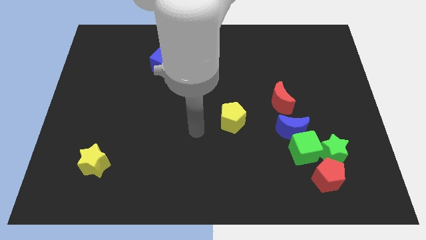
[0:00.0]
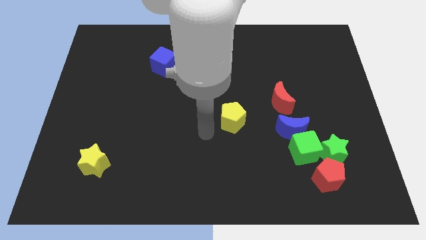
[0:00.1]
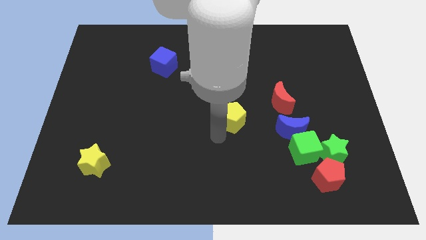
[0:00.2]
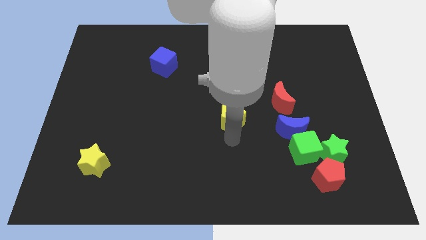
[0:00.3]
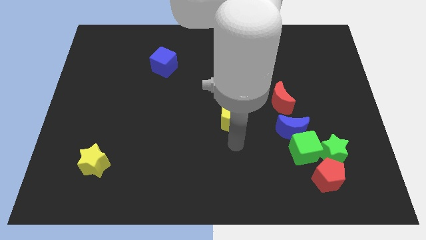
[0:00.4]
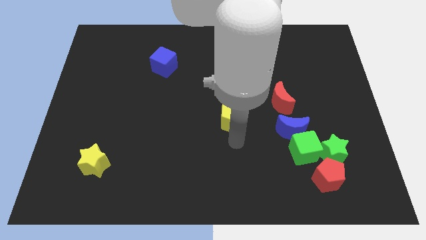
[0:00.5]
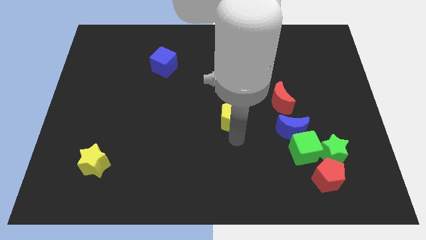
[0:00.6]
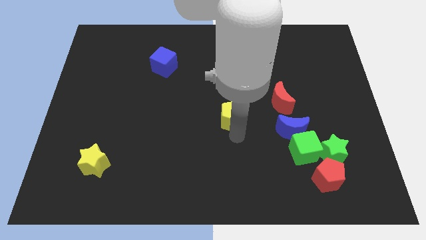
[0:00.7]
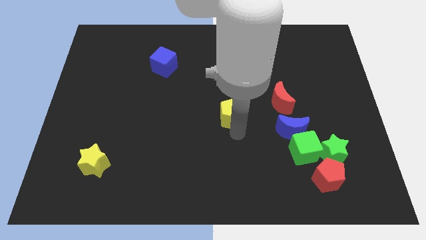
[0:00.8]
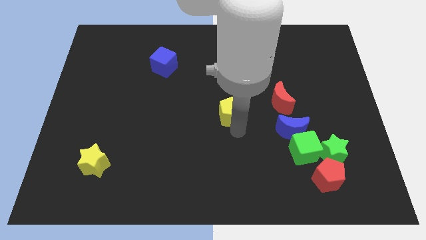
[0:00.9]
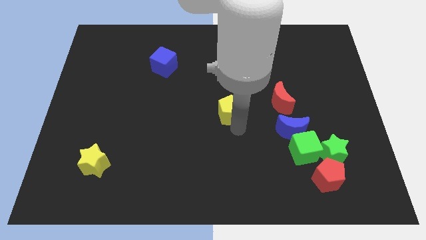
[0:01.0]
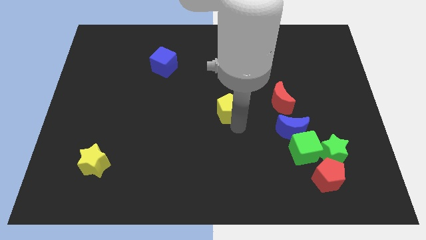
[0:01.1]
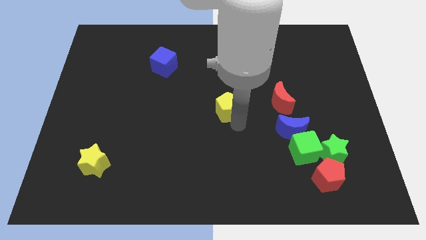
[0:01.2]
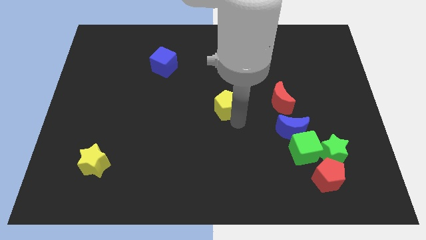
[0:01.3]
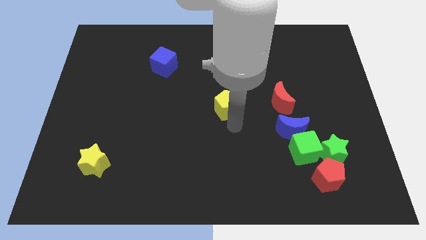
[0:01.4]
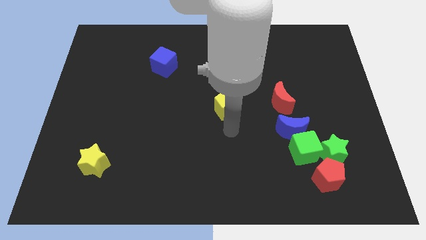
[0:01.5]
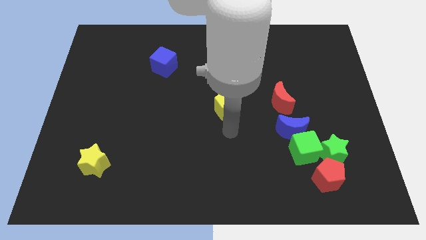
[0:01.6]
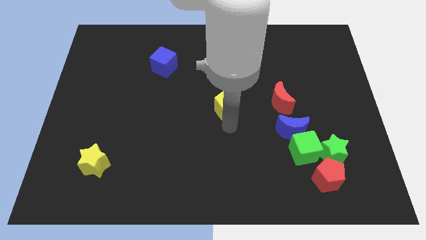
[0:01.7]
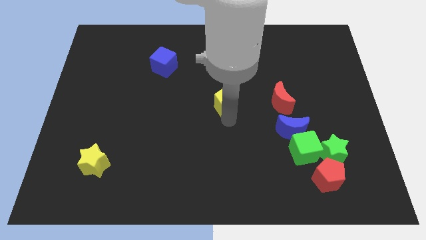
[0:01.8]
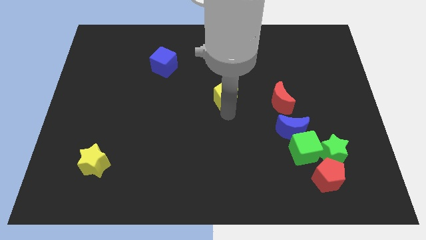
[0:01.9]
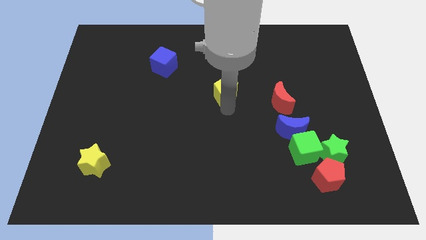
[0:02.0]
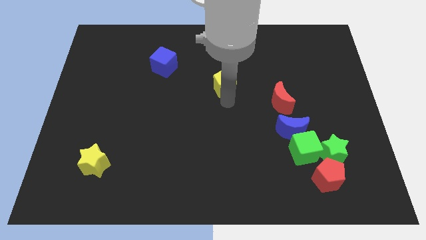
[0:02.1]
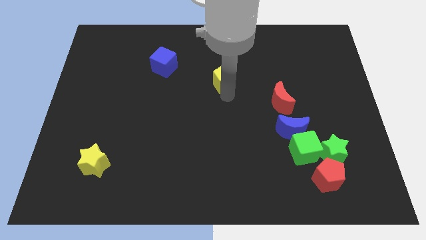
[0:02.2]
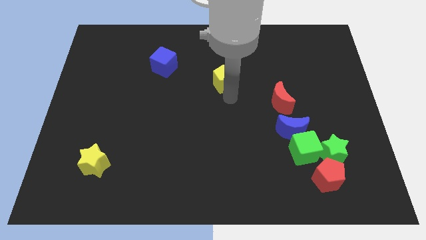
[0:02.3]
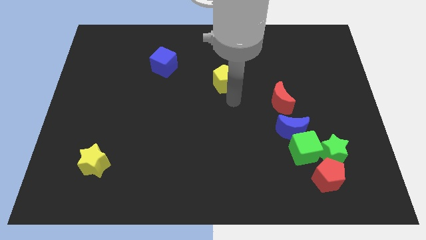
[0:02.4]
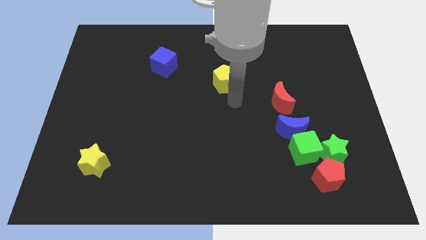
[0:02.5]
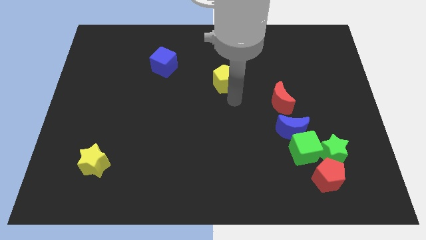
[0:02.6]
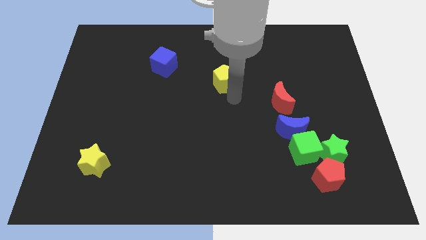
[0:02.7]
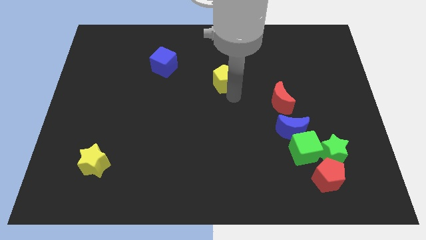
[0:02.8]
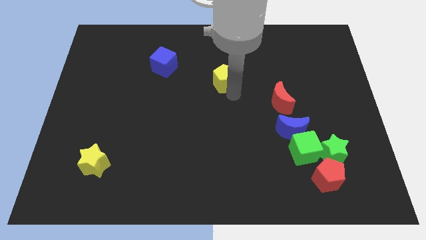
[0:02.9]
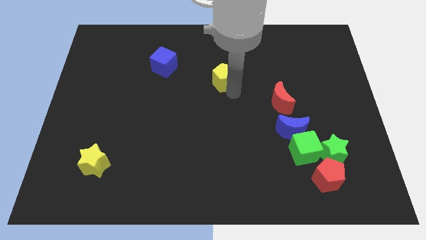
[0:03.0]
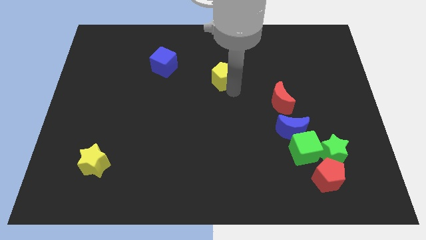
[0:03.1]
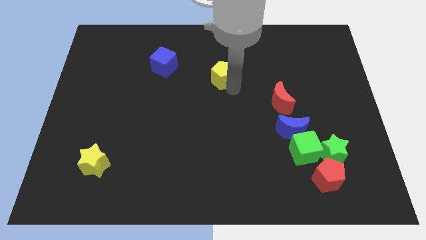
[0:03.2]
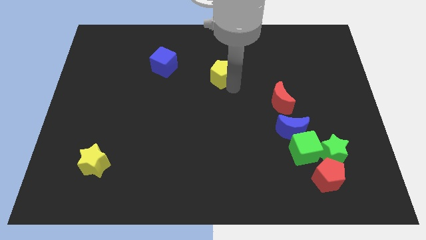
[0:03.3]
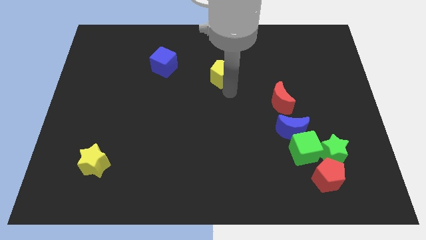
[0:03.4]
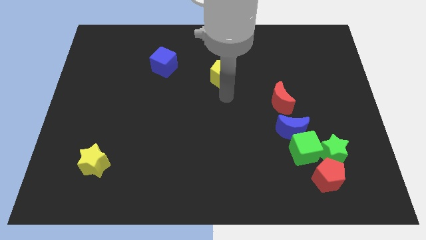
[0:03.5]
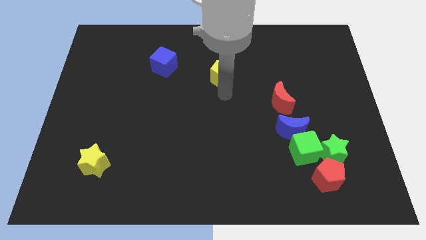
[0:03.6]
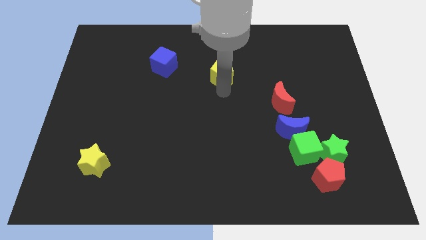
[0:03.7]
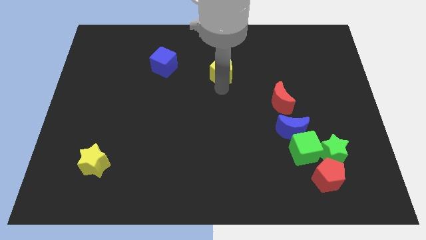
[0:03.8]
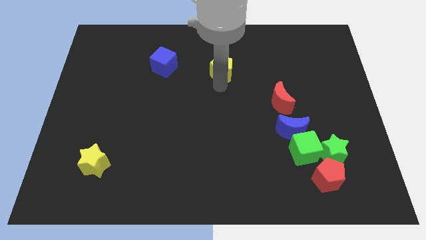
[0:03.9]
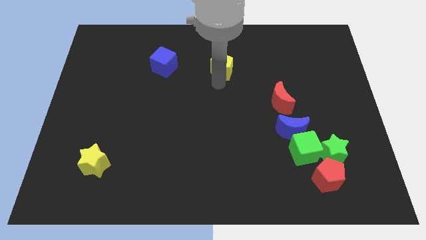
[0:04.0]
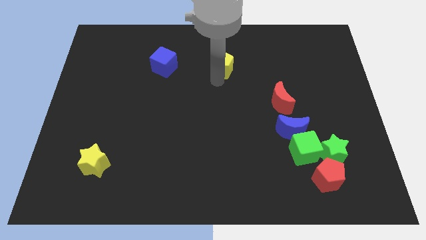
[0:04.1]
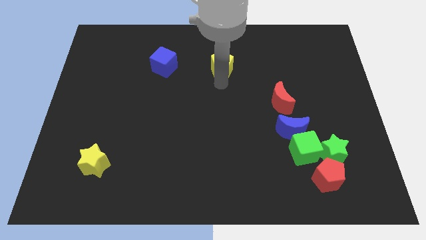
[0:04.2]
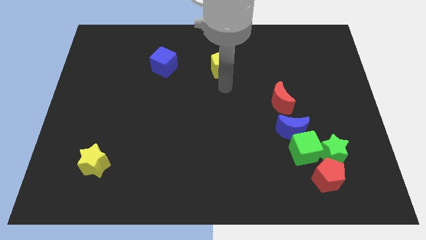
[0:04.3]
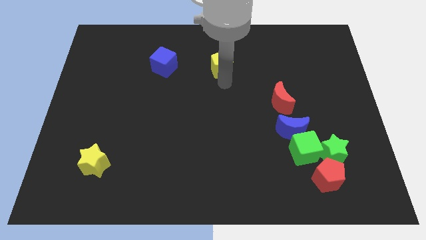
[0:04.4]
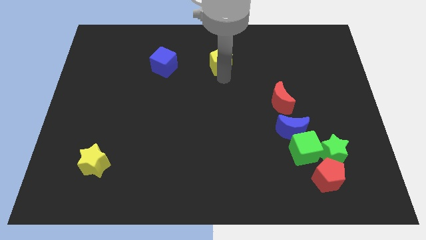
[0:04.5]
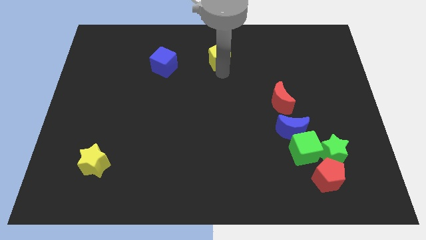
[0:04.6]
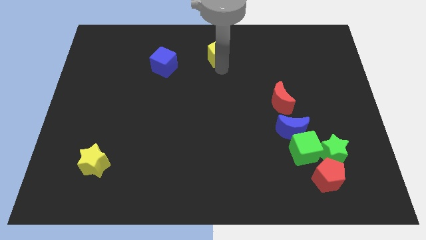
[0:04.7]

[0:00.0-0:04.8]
push the yellow pentagon to the top side

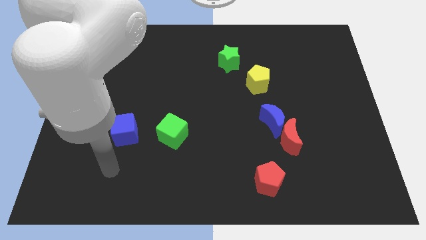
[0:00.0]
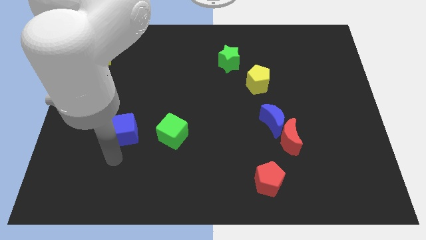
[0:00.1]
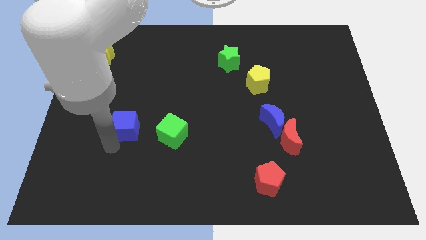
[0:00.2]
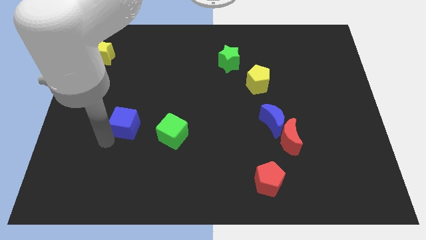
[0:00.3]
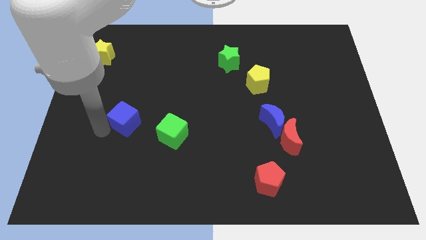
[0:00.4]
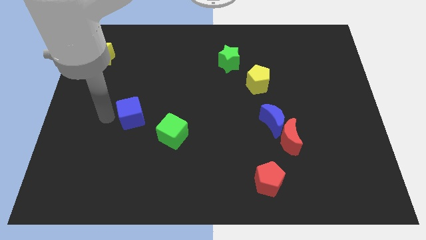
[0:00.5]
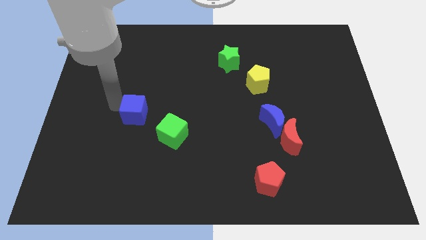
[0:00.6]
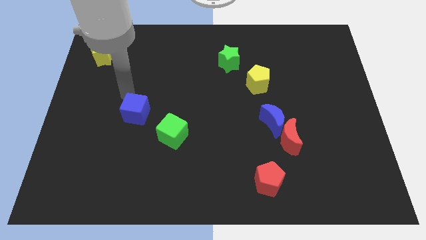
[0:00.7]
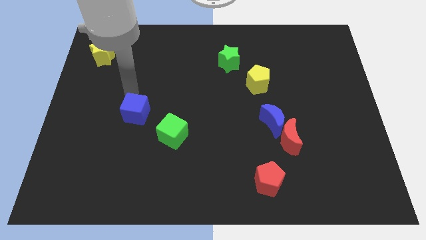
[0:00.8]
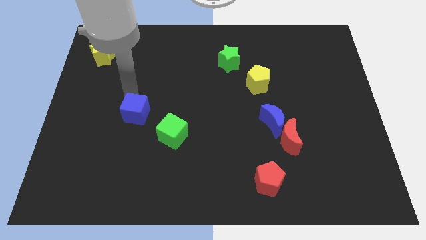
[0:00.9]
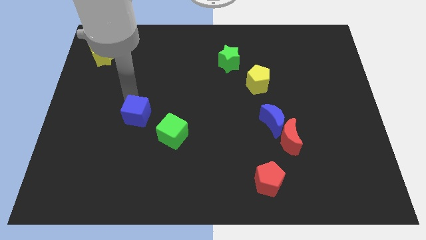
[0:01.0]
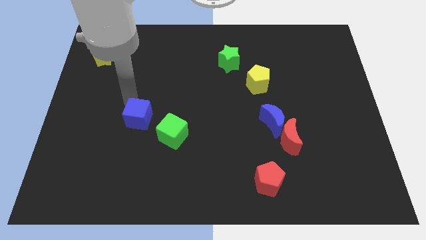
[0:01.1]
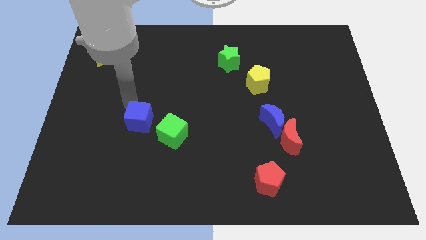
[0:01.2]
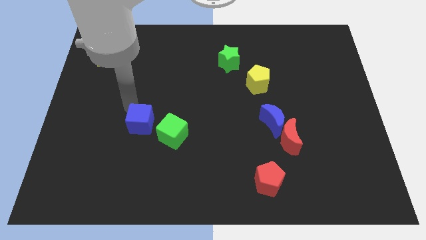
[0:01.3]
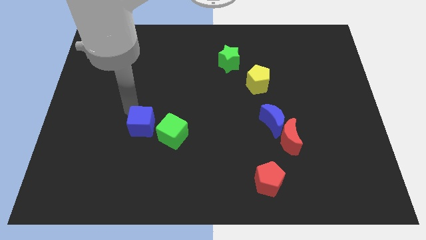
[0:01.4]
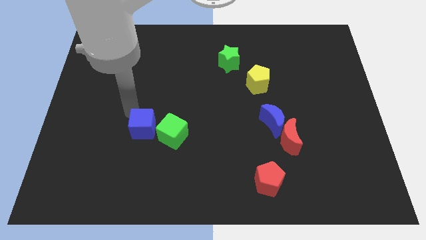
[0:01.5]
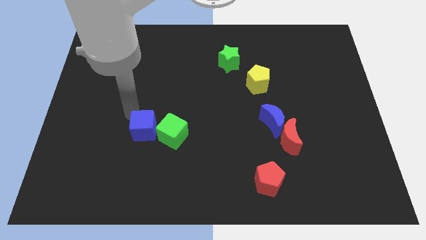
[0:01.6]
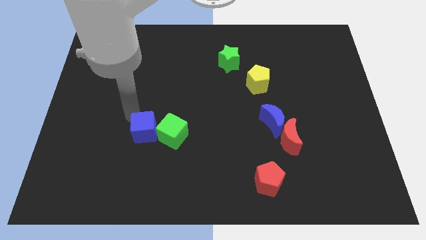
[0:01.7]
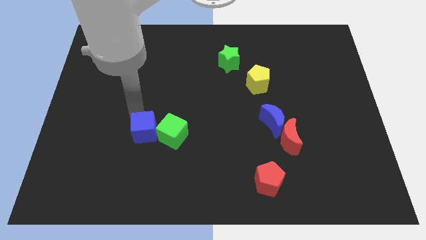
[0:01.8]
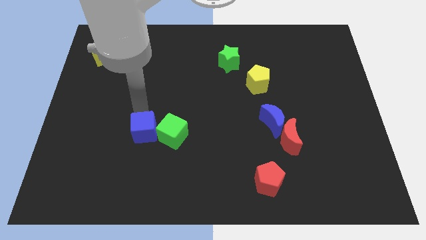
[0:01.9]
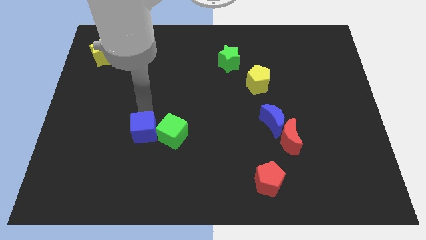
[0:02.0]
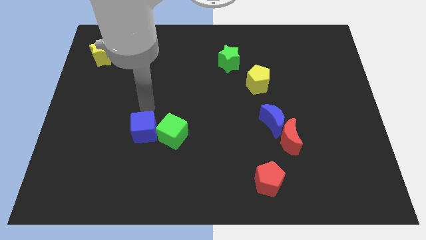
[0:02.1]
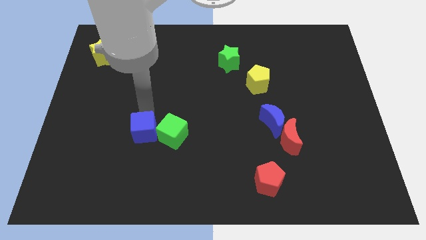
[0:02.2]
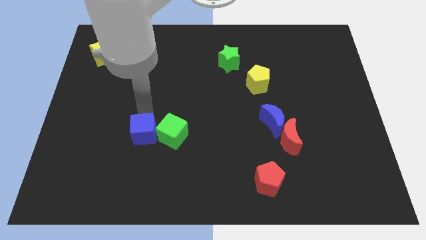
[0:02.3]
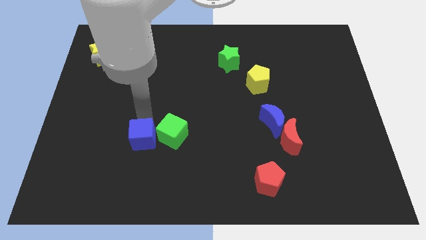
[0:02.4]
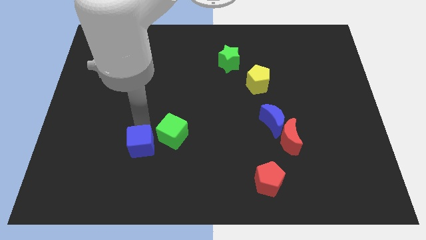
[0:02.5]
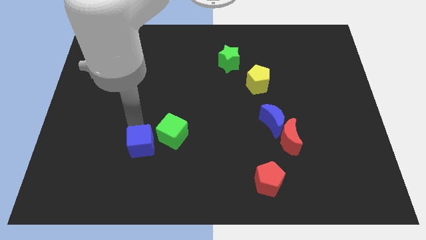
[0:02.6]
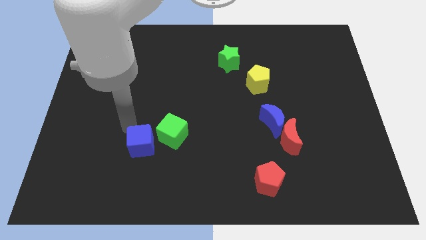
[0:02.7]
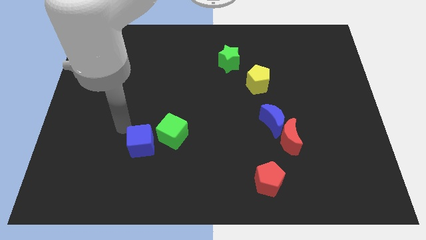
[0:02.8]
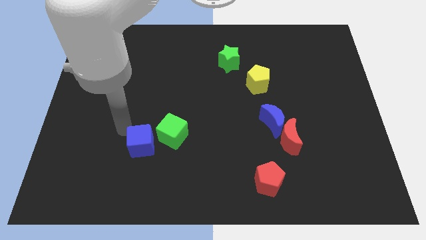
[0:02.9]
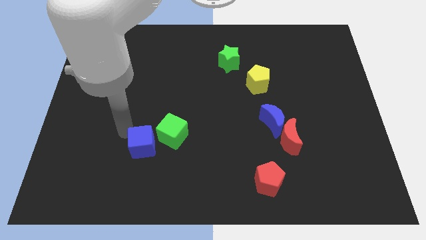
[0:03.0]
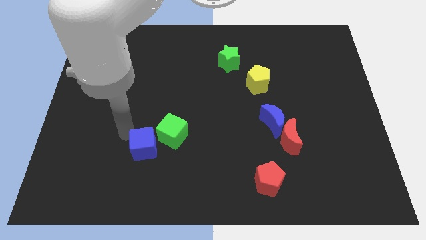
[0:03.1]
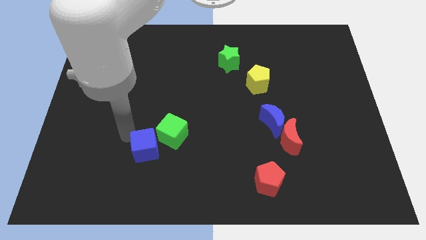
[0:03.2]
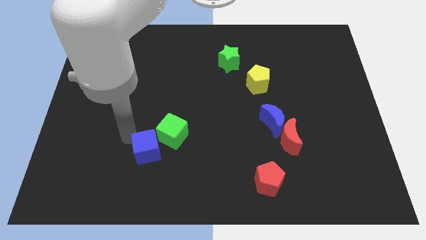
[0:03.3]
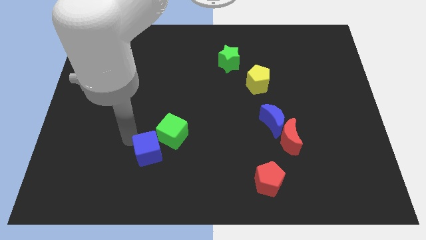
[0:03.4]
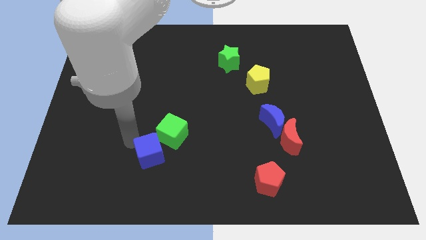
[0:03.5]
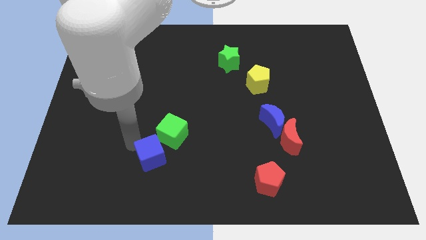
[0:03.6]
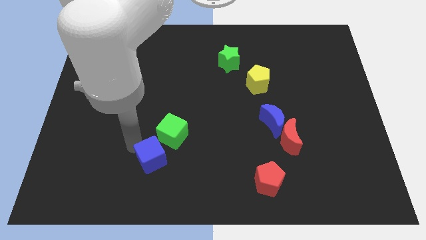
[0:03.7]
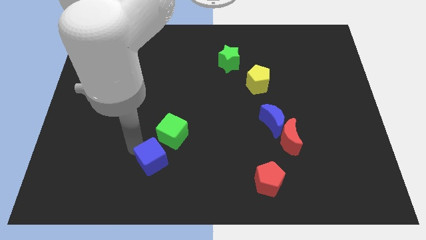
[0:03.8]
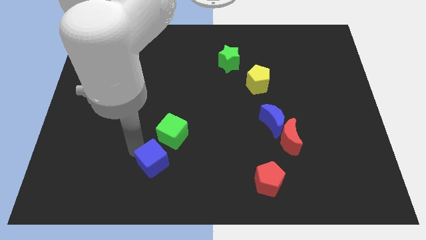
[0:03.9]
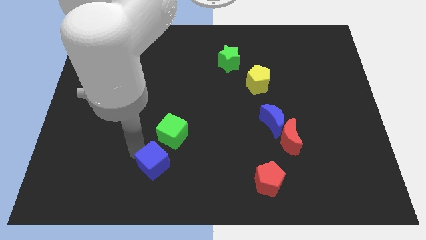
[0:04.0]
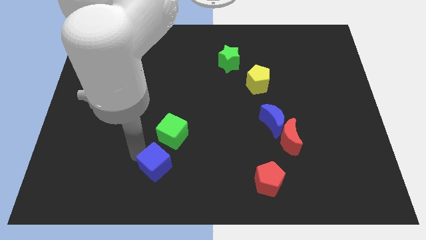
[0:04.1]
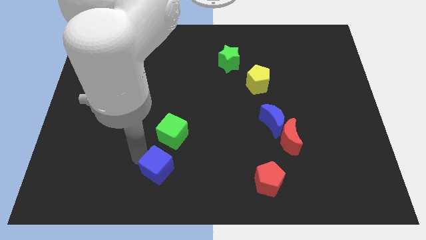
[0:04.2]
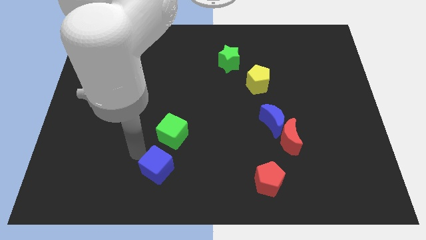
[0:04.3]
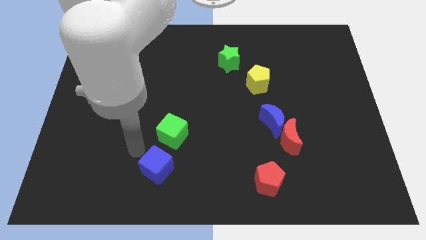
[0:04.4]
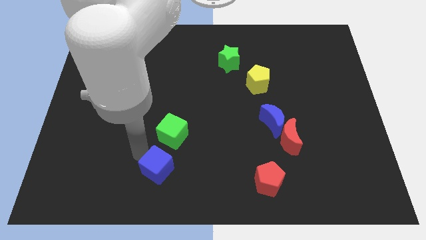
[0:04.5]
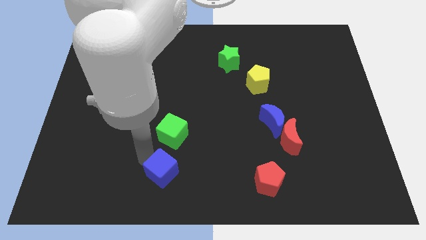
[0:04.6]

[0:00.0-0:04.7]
push the blue cube to the bottom
